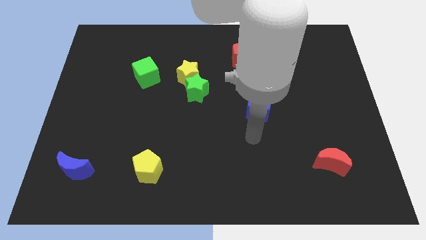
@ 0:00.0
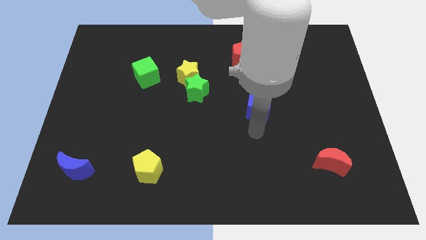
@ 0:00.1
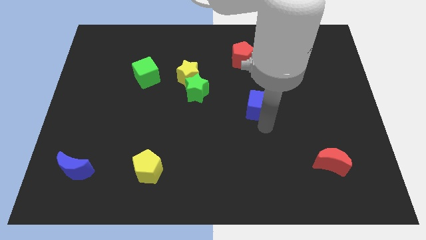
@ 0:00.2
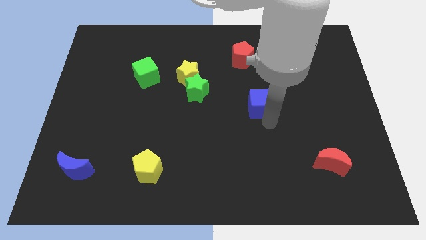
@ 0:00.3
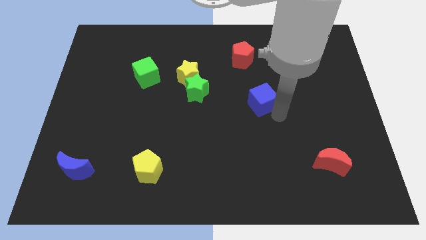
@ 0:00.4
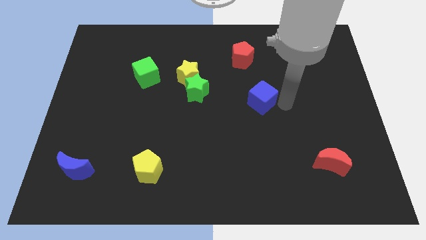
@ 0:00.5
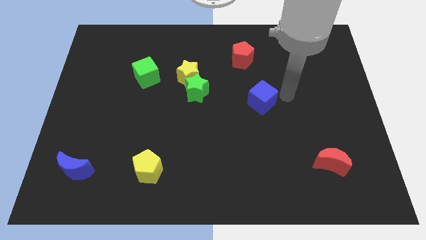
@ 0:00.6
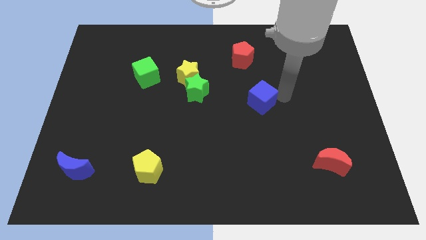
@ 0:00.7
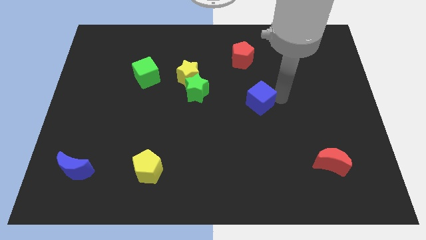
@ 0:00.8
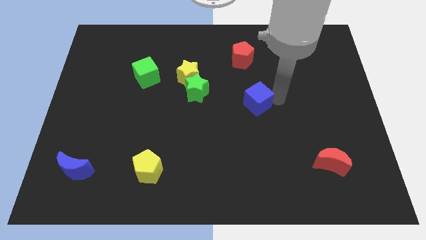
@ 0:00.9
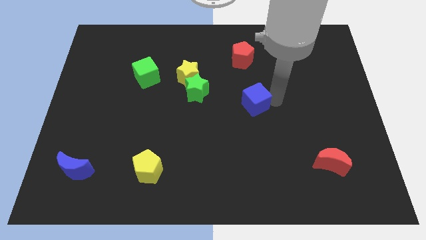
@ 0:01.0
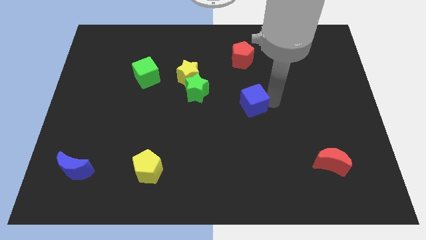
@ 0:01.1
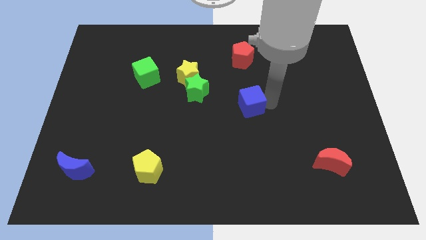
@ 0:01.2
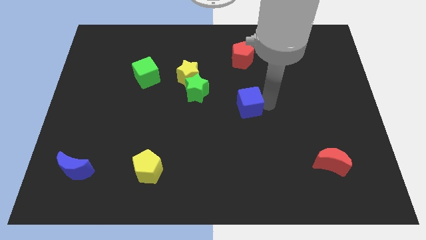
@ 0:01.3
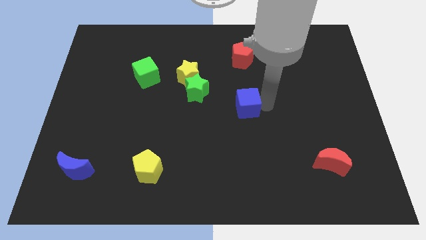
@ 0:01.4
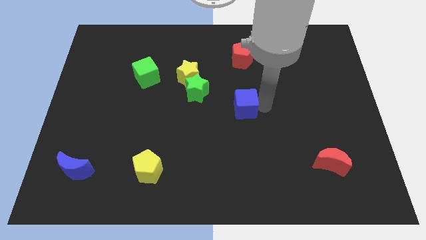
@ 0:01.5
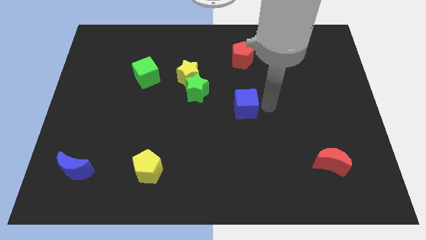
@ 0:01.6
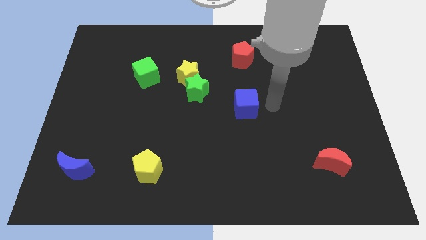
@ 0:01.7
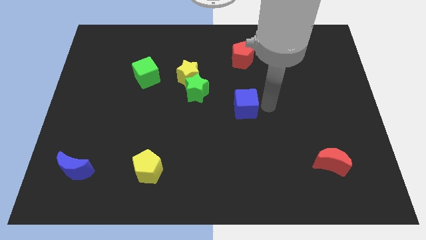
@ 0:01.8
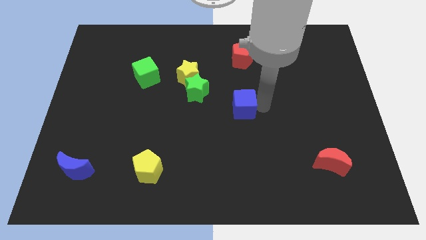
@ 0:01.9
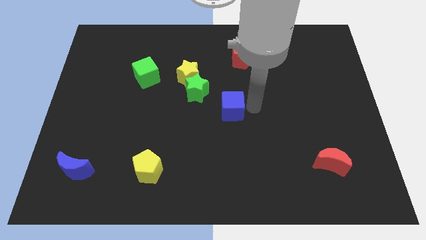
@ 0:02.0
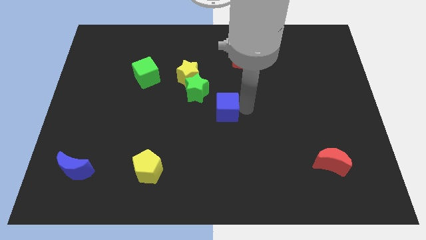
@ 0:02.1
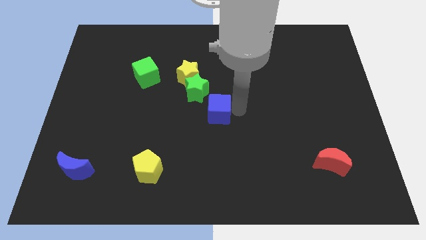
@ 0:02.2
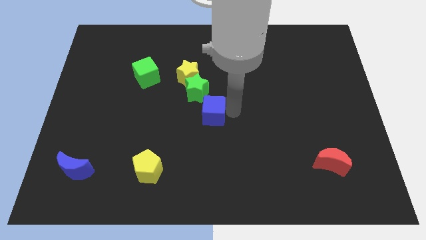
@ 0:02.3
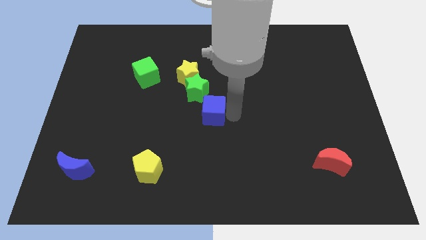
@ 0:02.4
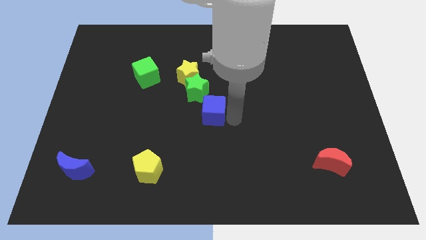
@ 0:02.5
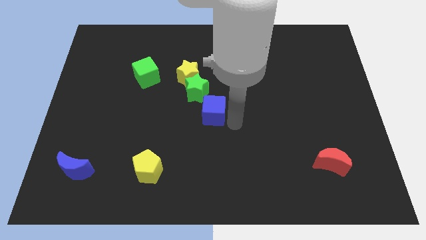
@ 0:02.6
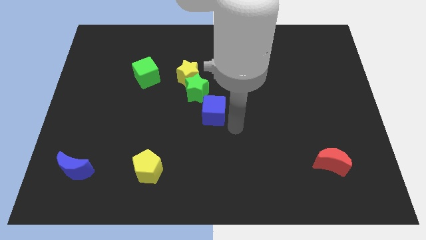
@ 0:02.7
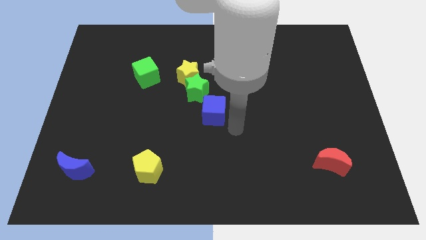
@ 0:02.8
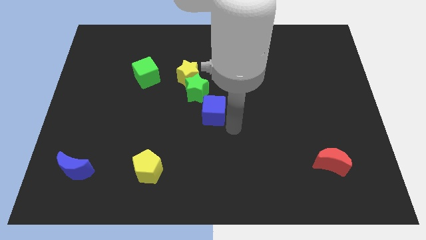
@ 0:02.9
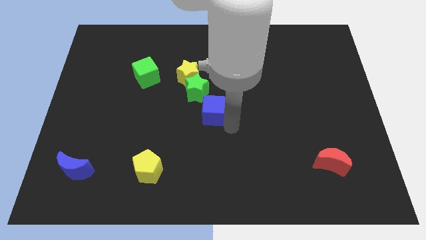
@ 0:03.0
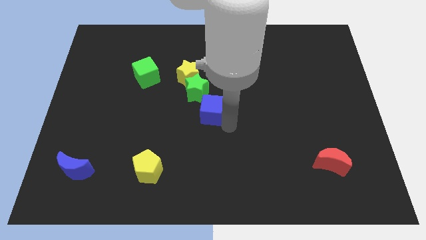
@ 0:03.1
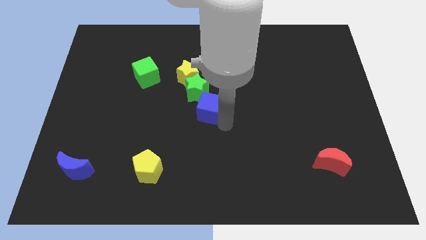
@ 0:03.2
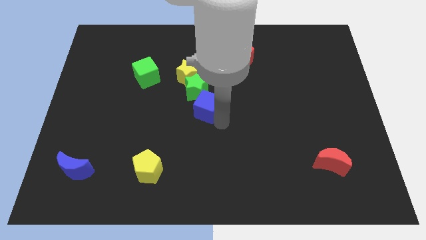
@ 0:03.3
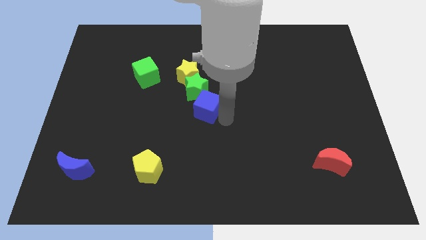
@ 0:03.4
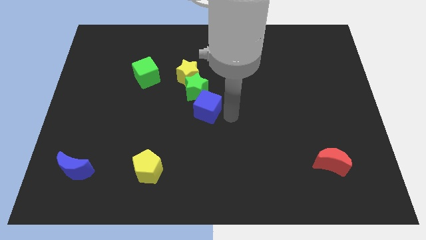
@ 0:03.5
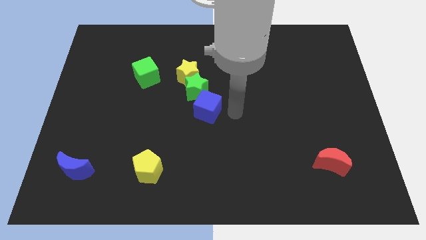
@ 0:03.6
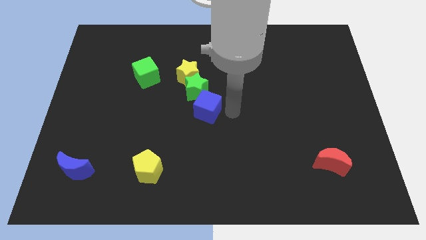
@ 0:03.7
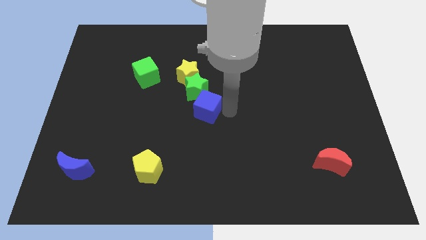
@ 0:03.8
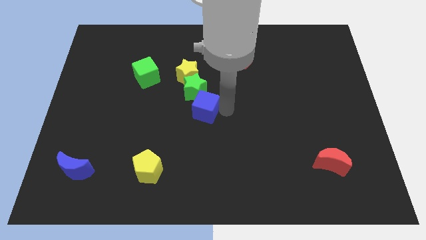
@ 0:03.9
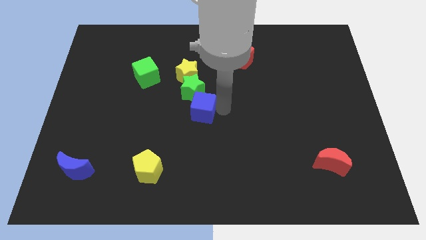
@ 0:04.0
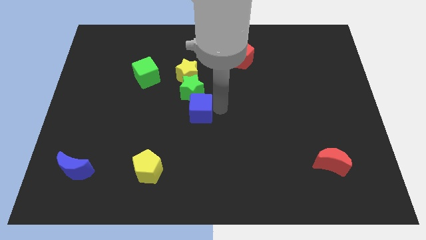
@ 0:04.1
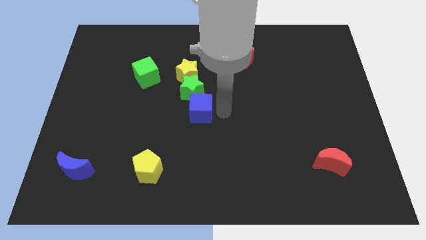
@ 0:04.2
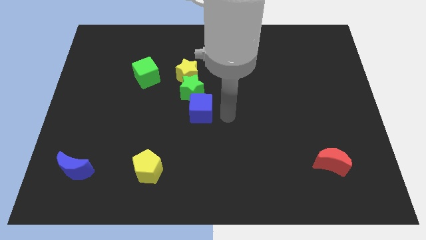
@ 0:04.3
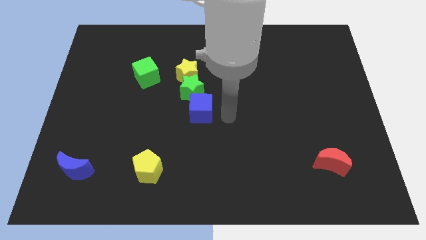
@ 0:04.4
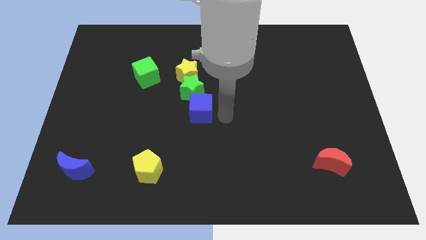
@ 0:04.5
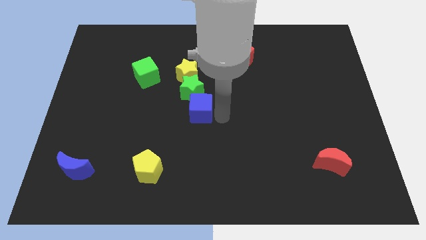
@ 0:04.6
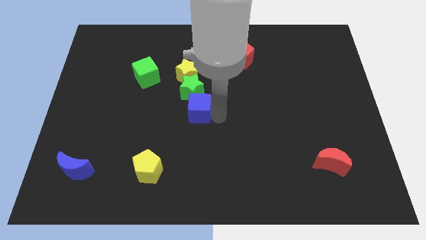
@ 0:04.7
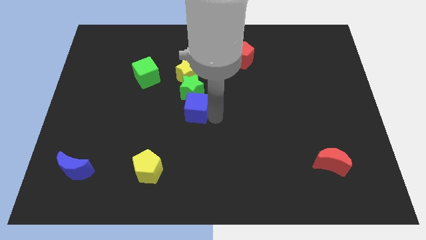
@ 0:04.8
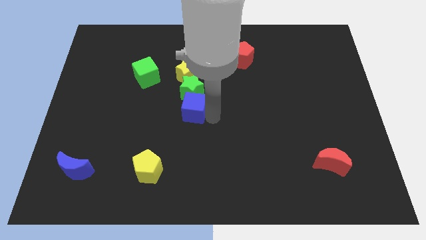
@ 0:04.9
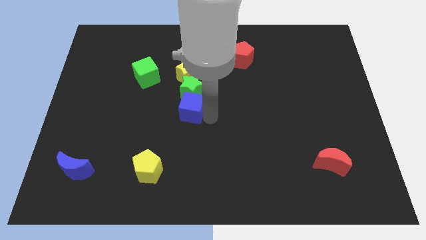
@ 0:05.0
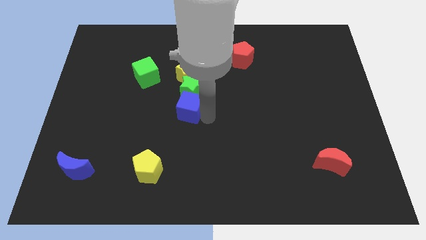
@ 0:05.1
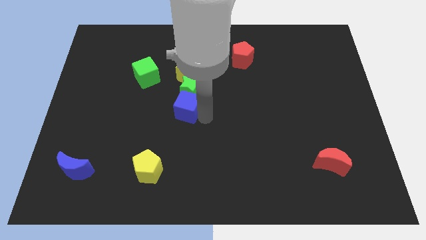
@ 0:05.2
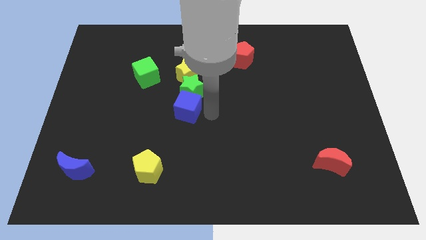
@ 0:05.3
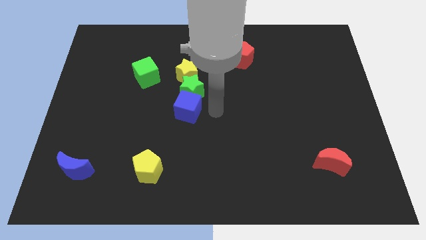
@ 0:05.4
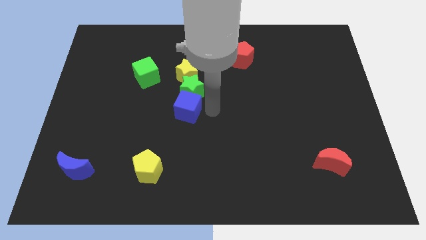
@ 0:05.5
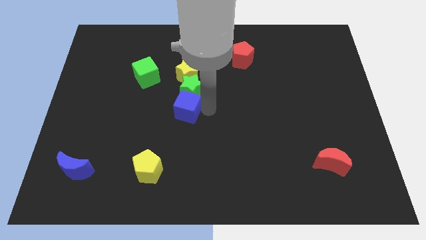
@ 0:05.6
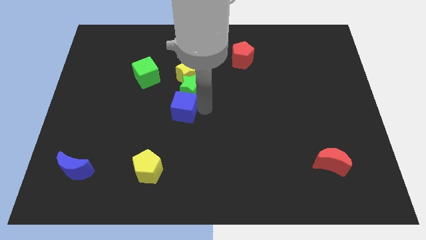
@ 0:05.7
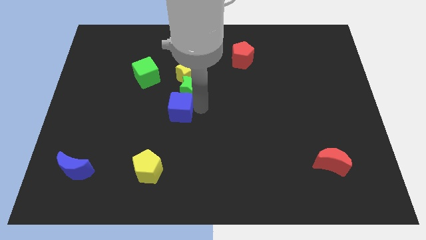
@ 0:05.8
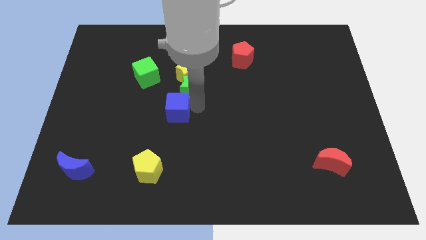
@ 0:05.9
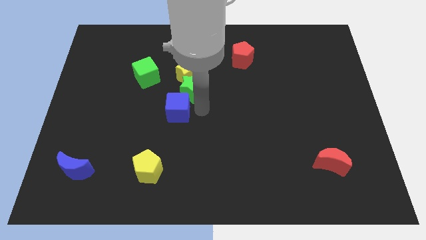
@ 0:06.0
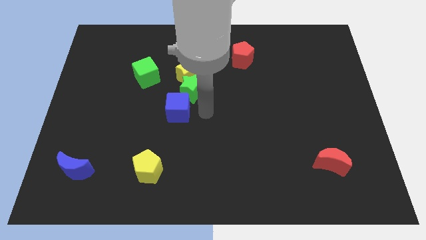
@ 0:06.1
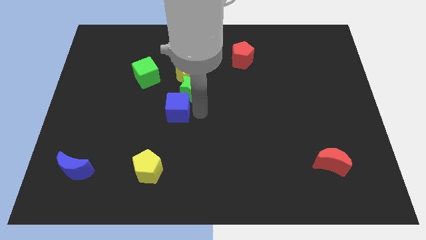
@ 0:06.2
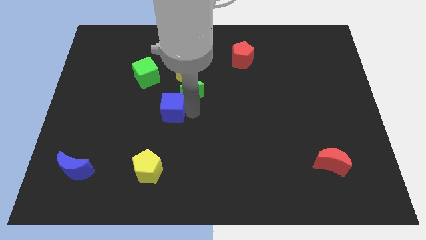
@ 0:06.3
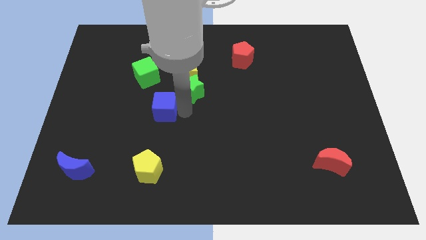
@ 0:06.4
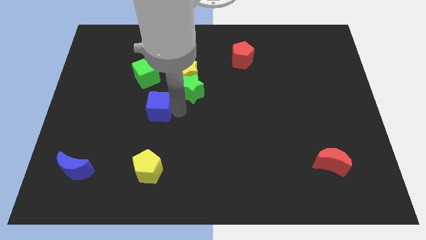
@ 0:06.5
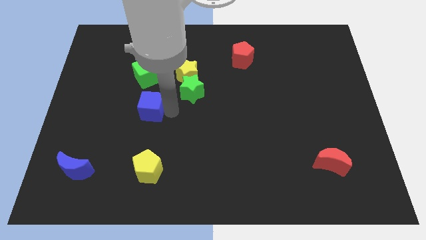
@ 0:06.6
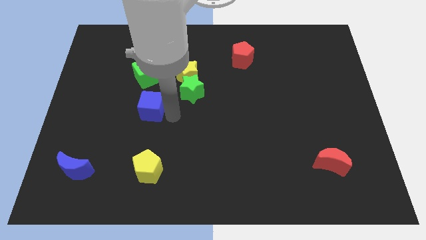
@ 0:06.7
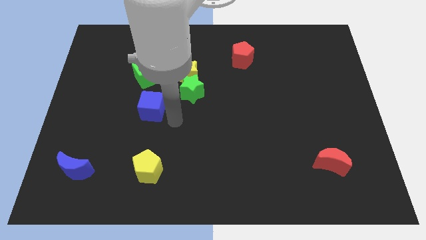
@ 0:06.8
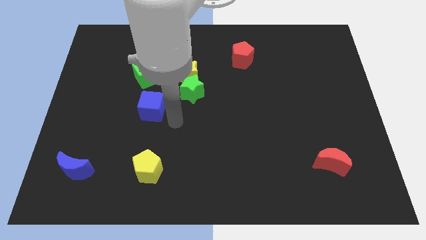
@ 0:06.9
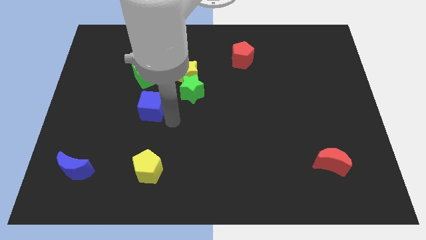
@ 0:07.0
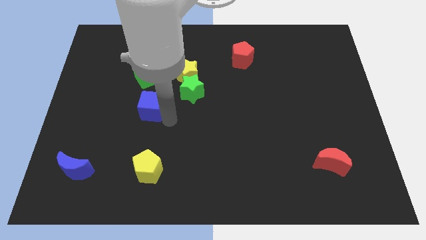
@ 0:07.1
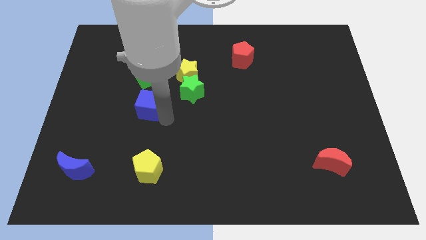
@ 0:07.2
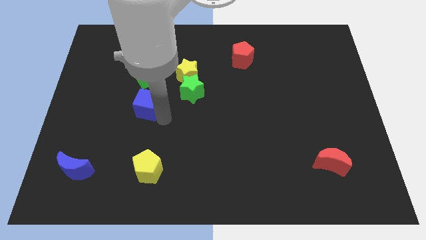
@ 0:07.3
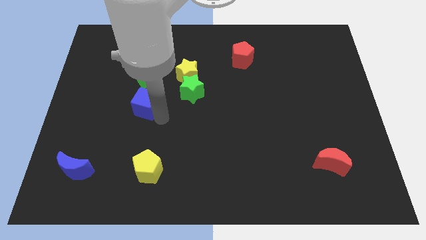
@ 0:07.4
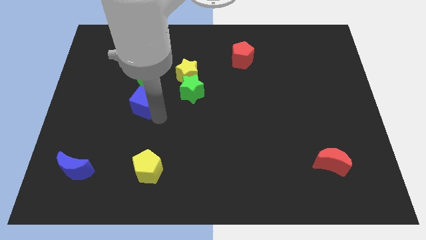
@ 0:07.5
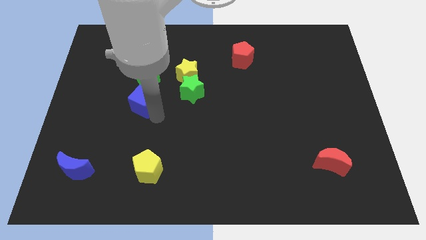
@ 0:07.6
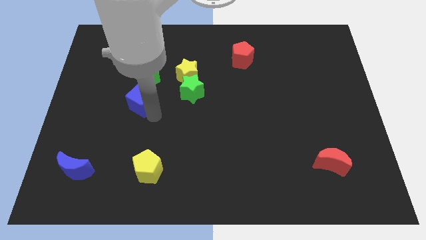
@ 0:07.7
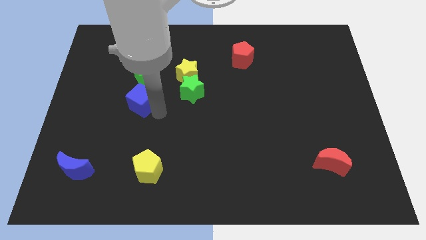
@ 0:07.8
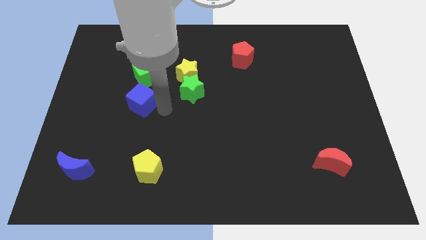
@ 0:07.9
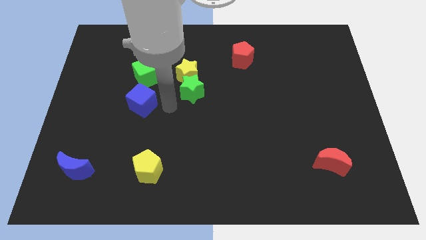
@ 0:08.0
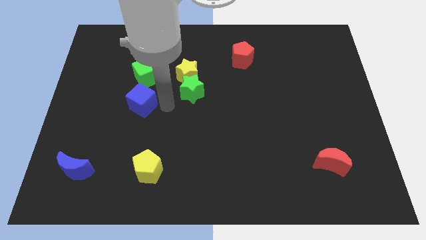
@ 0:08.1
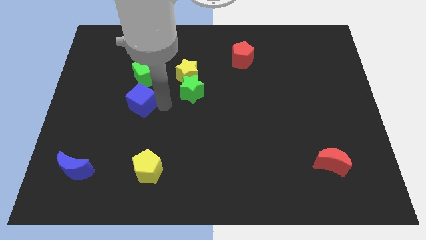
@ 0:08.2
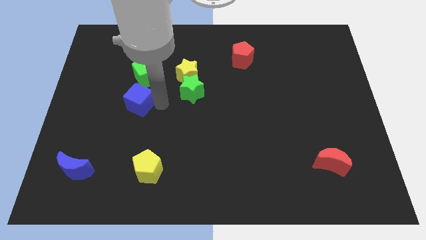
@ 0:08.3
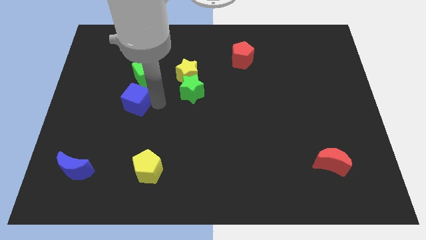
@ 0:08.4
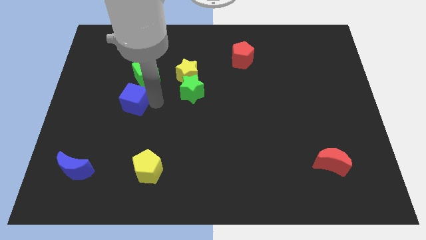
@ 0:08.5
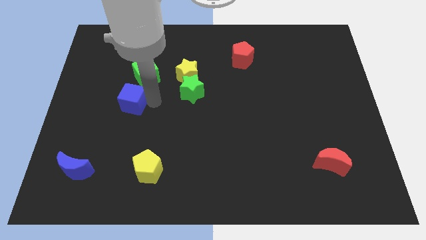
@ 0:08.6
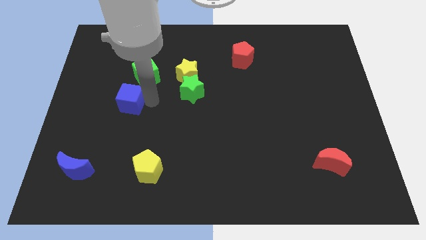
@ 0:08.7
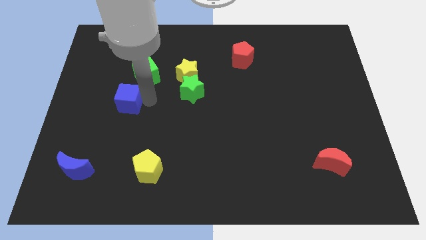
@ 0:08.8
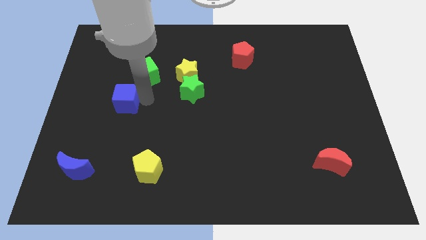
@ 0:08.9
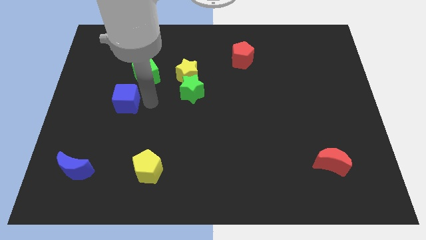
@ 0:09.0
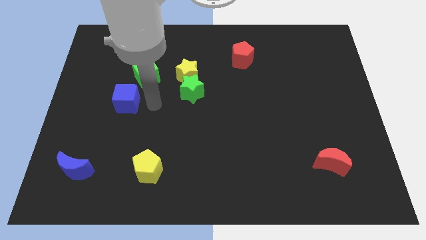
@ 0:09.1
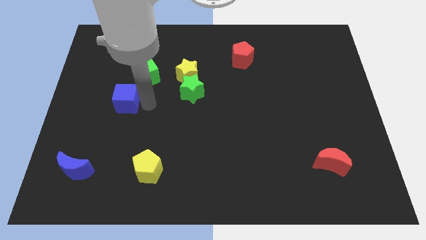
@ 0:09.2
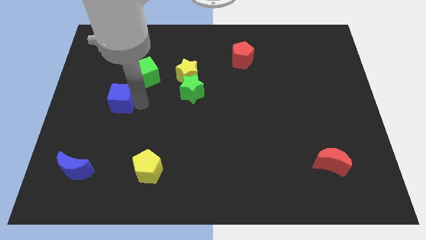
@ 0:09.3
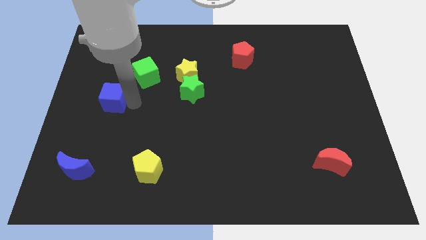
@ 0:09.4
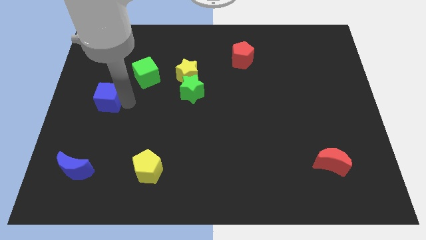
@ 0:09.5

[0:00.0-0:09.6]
push the blue cube to the left side of the board
